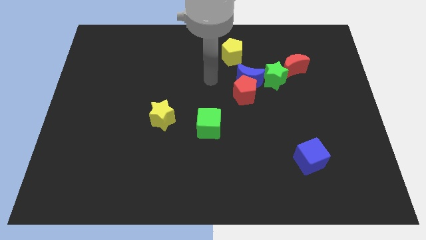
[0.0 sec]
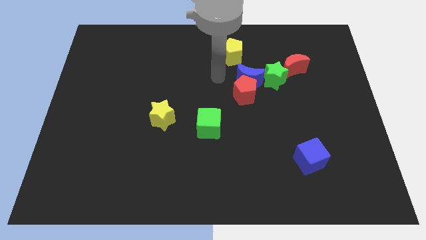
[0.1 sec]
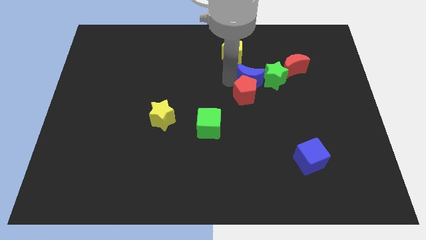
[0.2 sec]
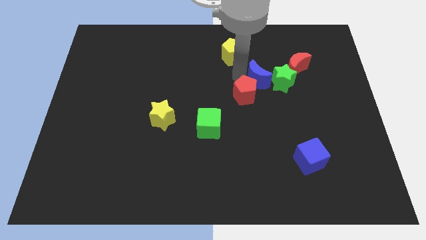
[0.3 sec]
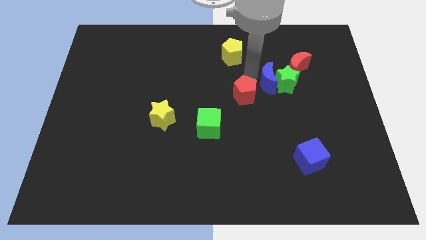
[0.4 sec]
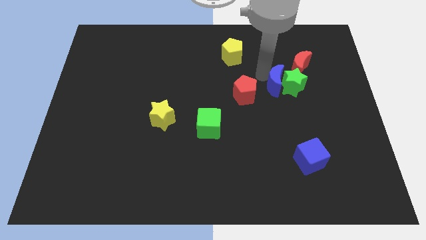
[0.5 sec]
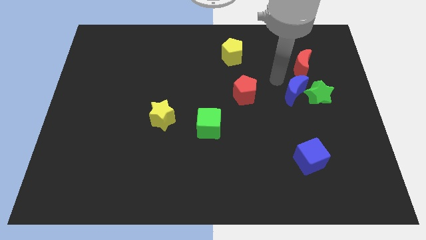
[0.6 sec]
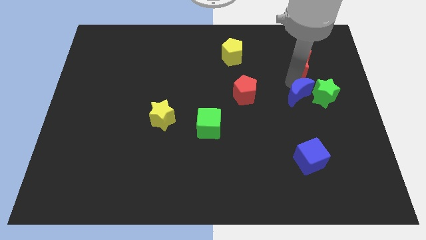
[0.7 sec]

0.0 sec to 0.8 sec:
move the red moon away from the green star

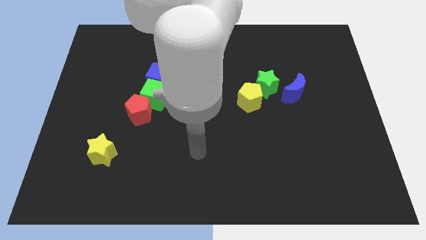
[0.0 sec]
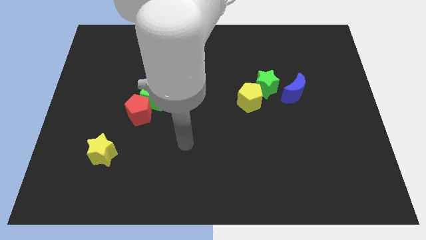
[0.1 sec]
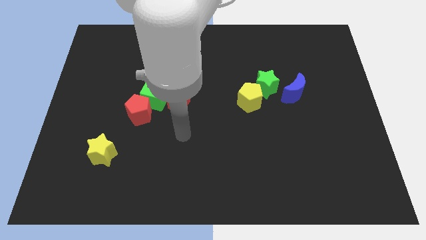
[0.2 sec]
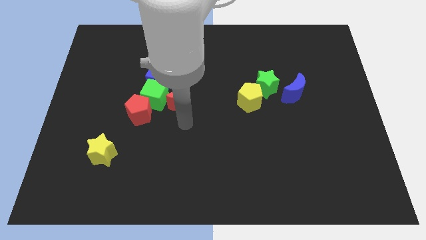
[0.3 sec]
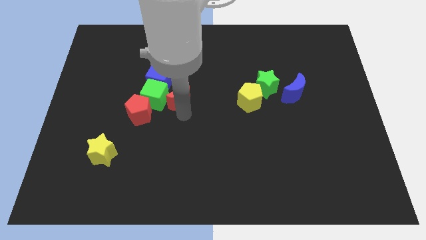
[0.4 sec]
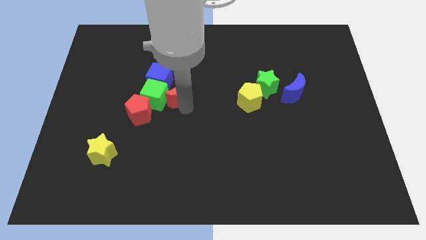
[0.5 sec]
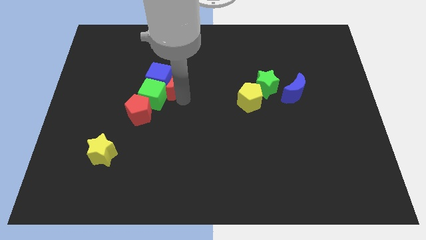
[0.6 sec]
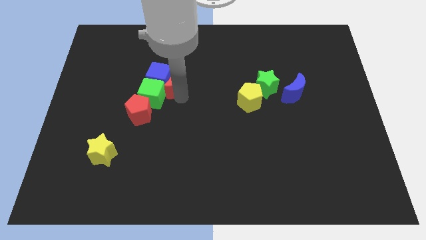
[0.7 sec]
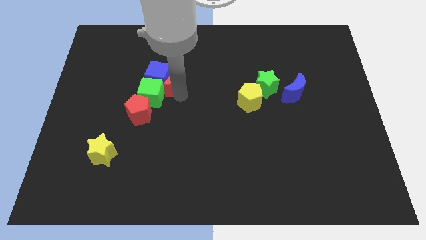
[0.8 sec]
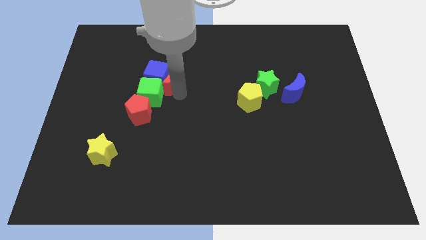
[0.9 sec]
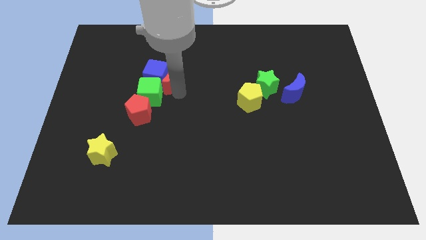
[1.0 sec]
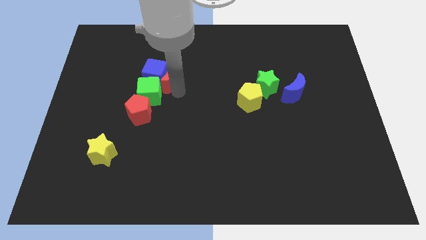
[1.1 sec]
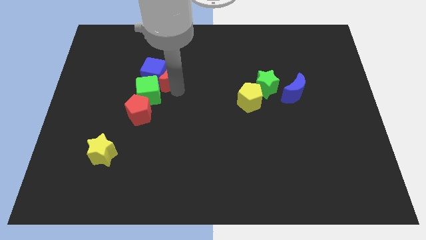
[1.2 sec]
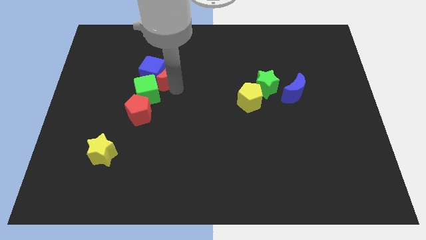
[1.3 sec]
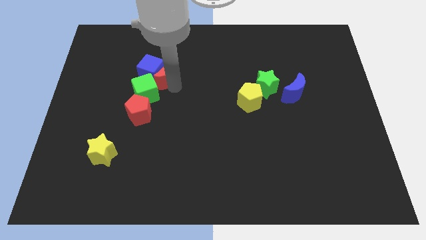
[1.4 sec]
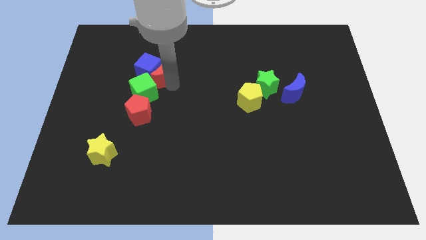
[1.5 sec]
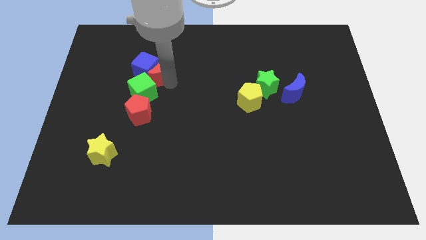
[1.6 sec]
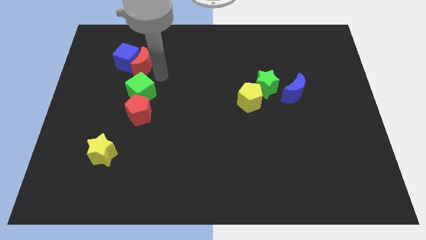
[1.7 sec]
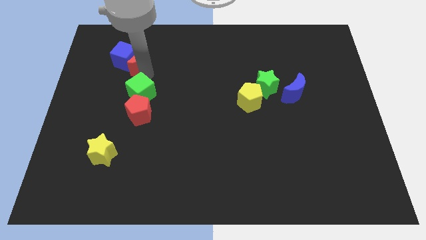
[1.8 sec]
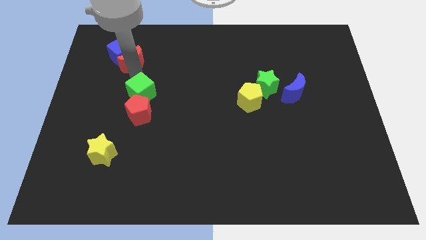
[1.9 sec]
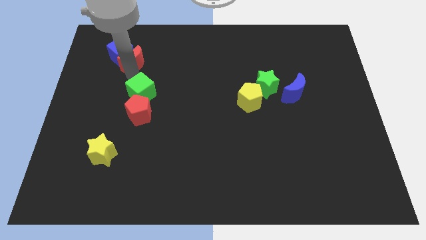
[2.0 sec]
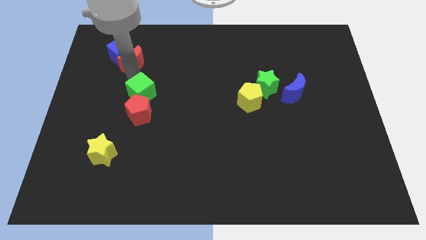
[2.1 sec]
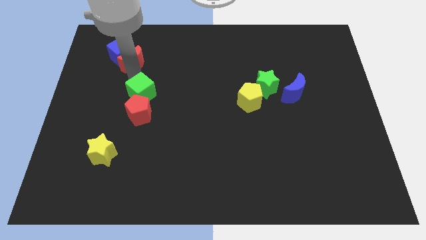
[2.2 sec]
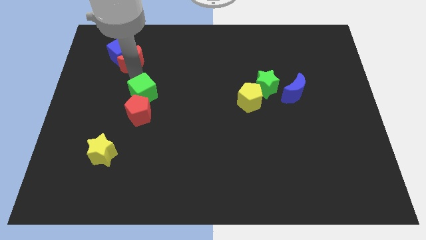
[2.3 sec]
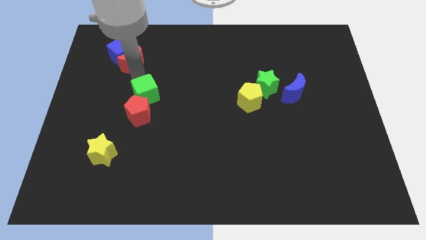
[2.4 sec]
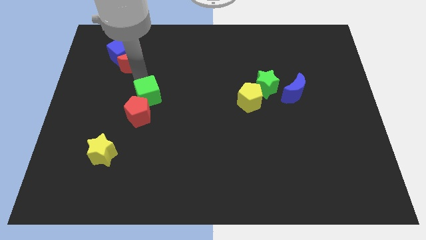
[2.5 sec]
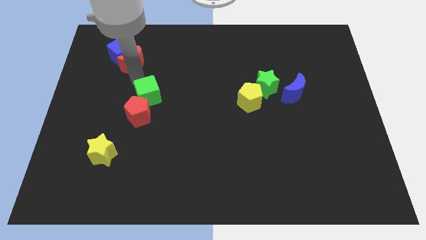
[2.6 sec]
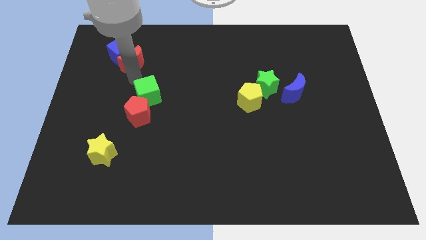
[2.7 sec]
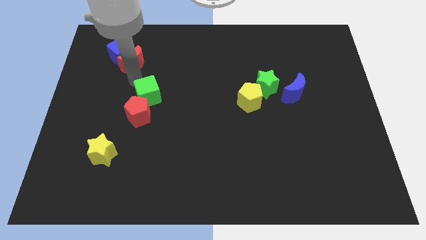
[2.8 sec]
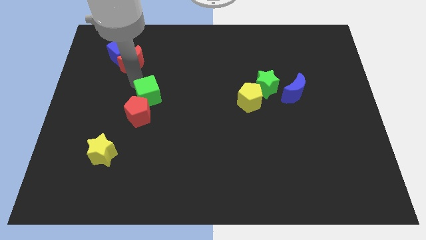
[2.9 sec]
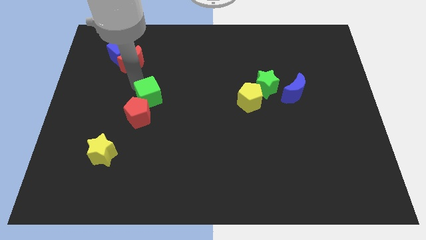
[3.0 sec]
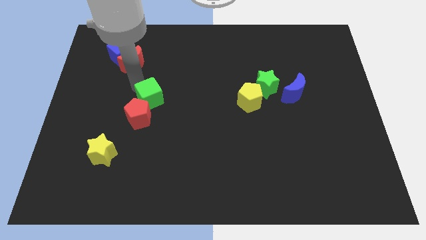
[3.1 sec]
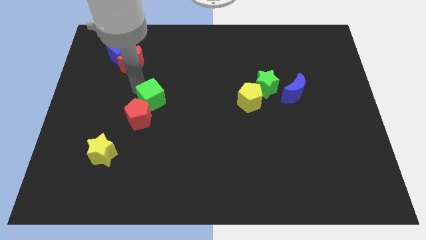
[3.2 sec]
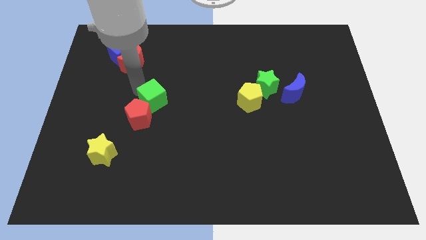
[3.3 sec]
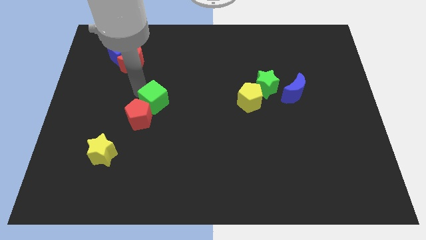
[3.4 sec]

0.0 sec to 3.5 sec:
move the green cube away from the clump

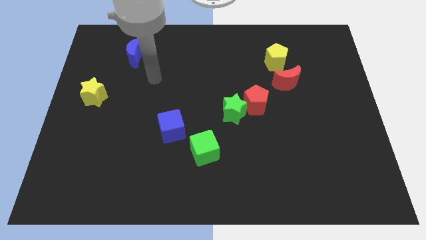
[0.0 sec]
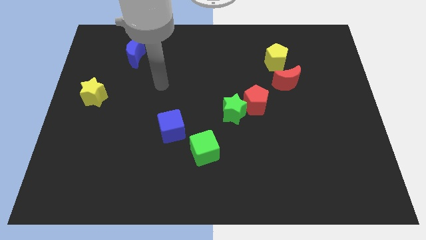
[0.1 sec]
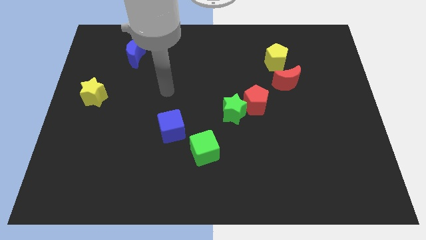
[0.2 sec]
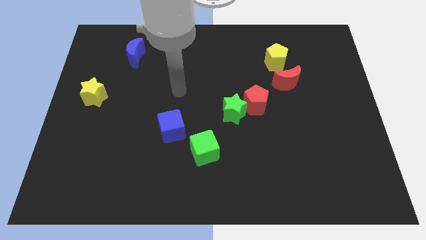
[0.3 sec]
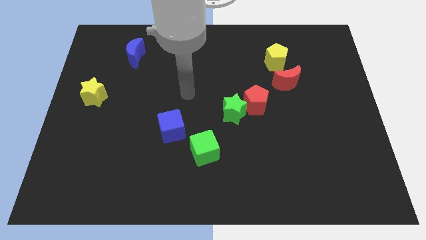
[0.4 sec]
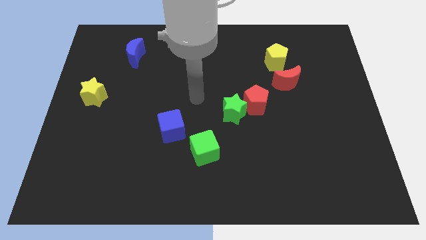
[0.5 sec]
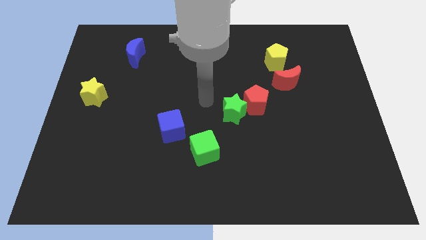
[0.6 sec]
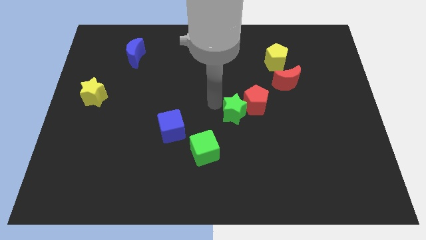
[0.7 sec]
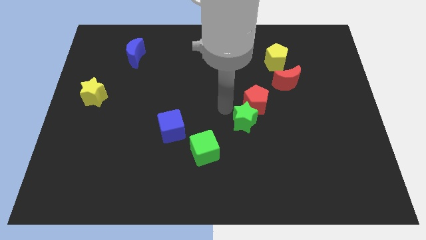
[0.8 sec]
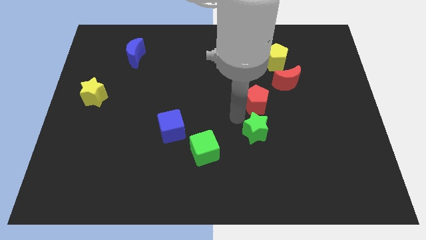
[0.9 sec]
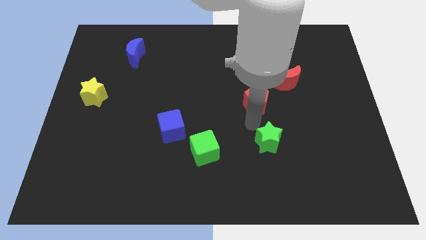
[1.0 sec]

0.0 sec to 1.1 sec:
separate the red pentagon from the green star

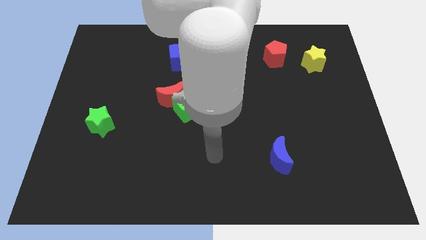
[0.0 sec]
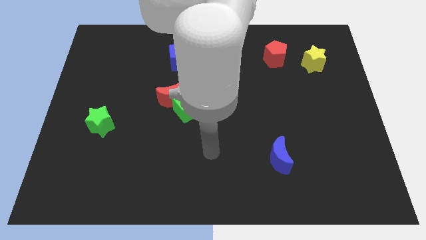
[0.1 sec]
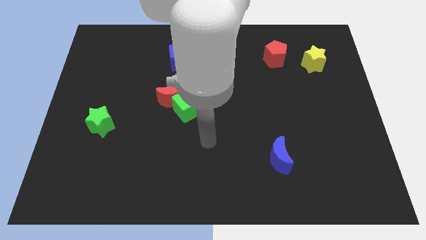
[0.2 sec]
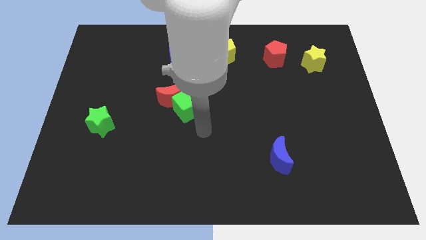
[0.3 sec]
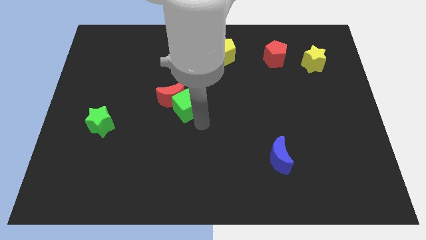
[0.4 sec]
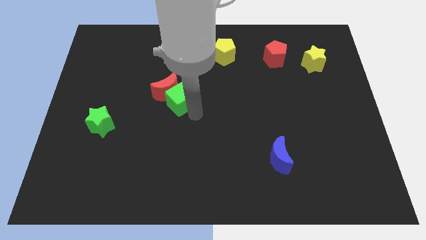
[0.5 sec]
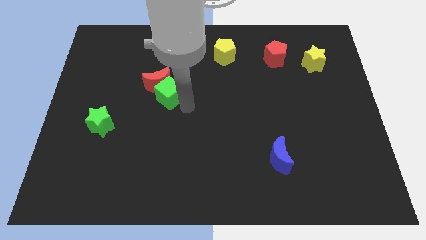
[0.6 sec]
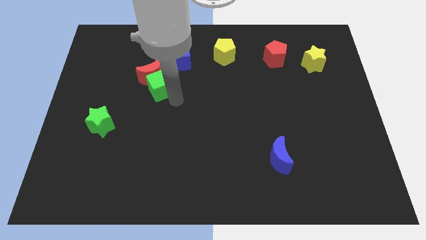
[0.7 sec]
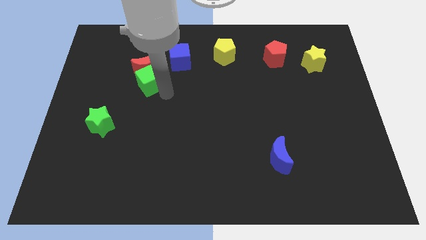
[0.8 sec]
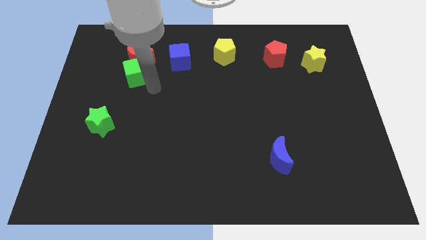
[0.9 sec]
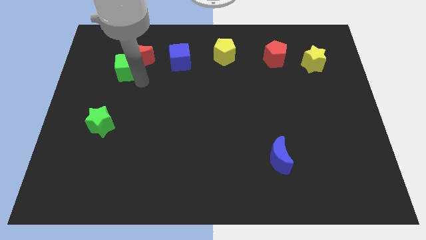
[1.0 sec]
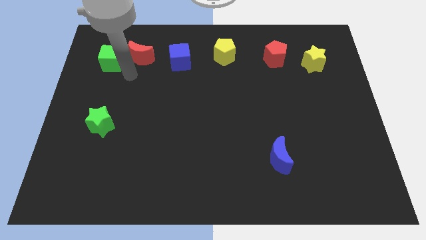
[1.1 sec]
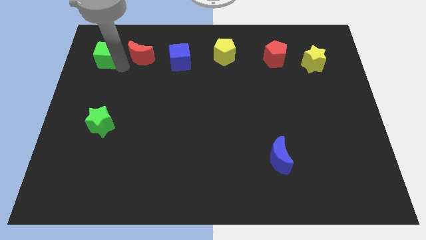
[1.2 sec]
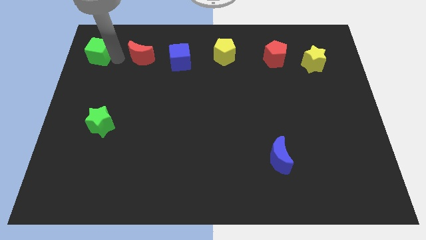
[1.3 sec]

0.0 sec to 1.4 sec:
pull the red moon apart from the green cube

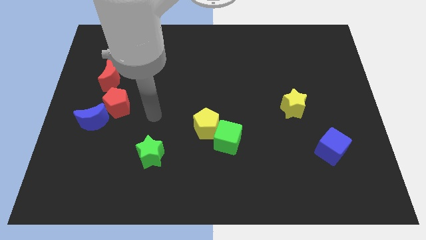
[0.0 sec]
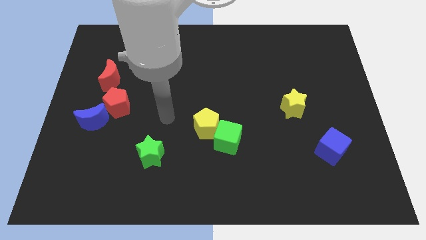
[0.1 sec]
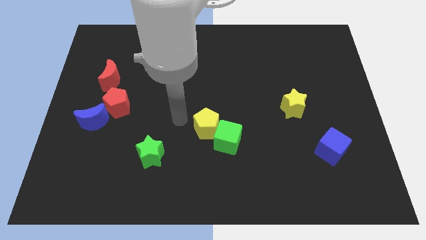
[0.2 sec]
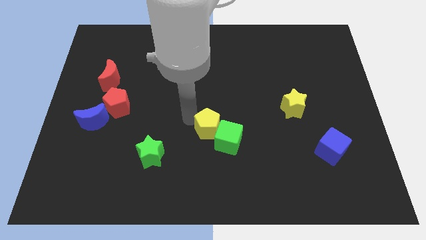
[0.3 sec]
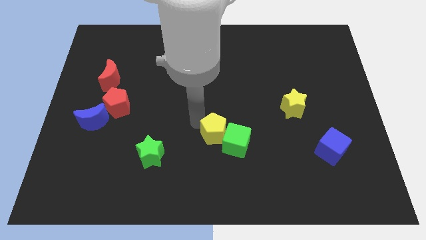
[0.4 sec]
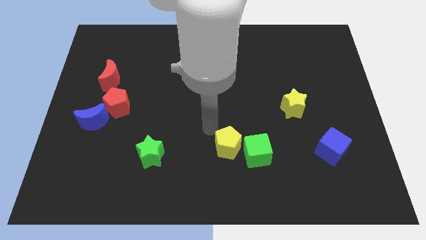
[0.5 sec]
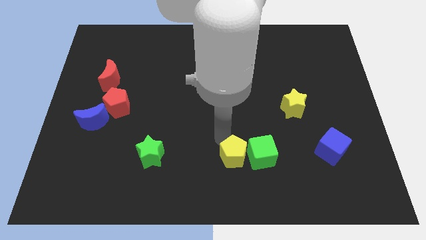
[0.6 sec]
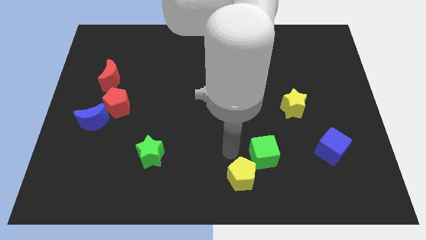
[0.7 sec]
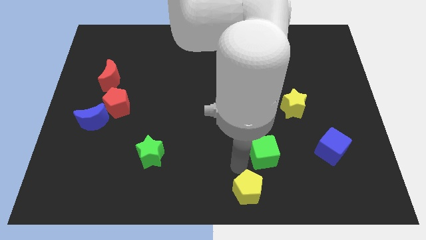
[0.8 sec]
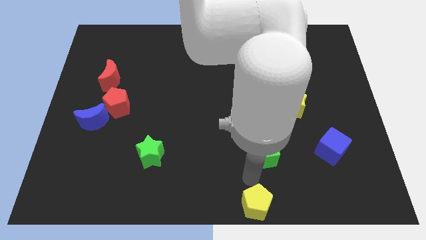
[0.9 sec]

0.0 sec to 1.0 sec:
separate the green cube from the yellow pentagon

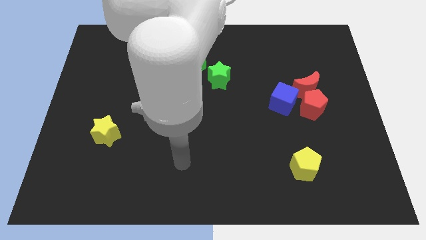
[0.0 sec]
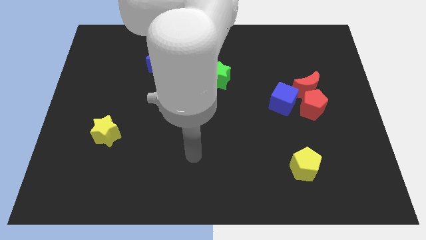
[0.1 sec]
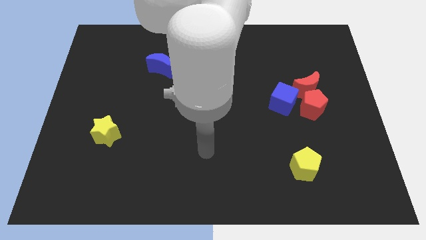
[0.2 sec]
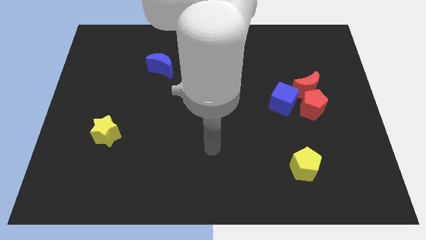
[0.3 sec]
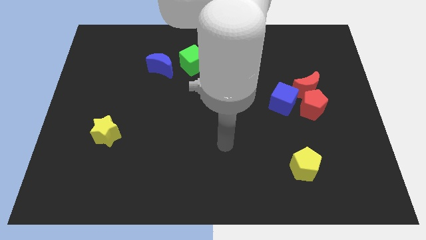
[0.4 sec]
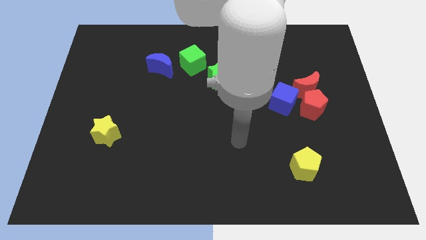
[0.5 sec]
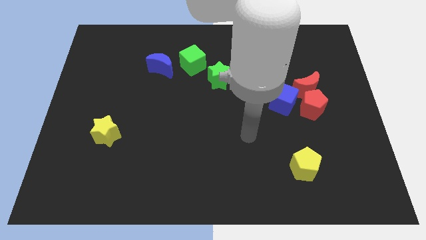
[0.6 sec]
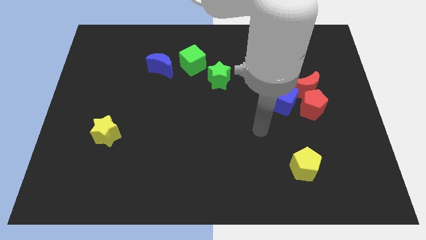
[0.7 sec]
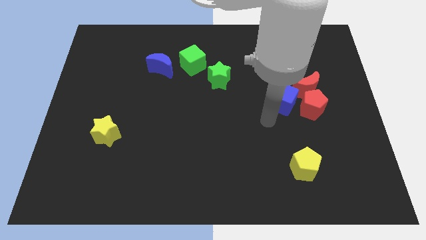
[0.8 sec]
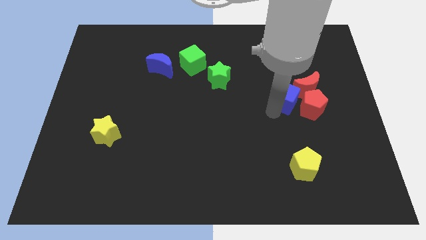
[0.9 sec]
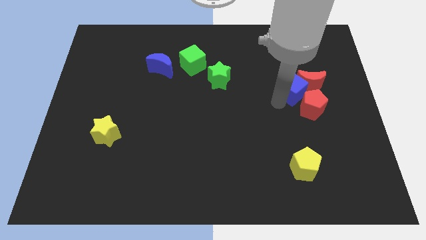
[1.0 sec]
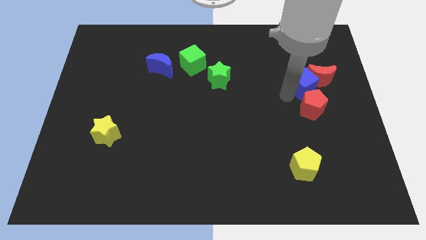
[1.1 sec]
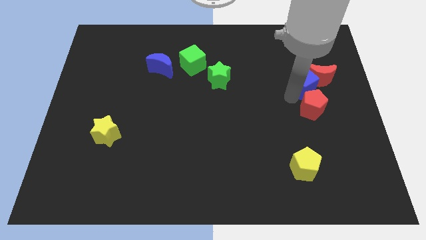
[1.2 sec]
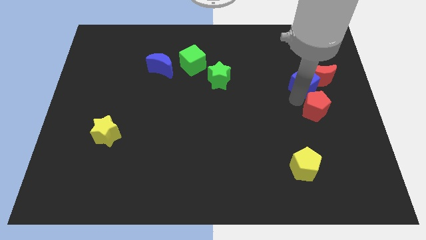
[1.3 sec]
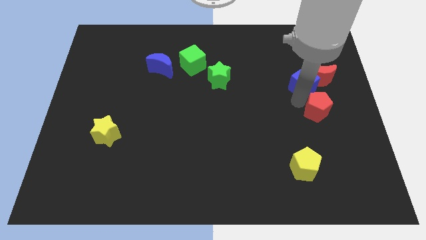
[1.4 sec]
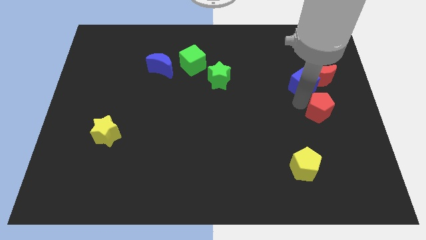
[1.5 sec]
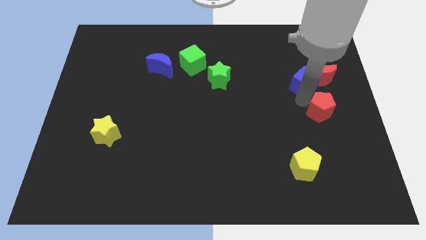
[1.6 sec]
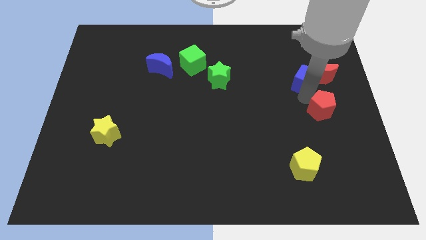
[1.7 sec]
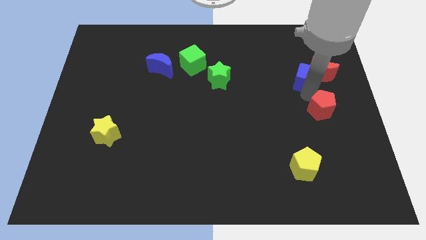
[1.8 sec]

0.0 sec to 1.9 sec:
pull the red pentagon apart from the red moon and blue cube
